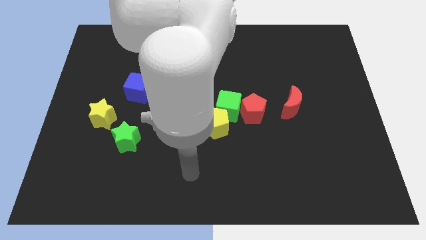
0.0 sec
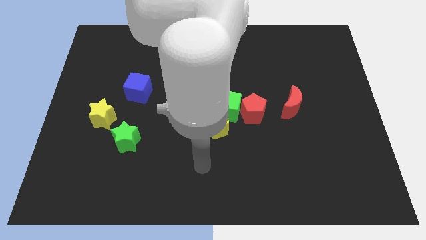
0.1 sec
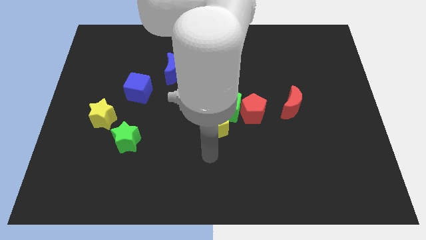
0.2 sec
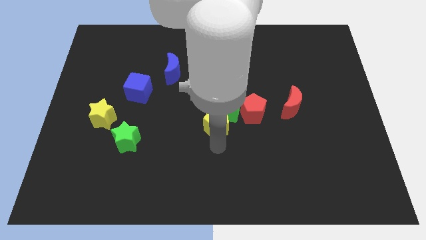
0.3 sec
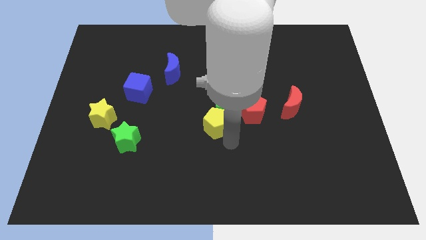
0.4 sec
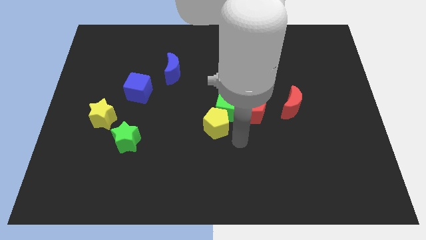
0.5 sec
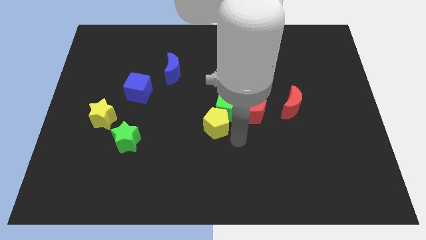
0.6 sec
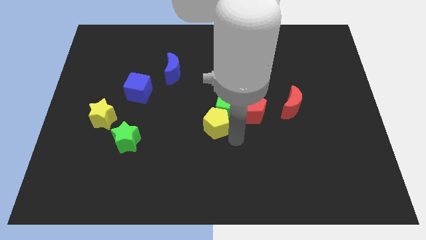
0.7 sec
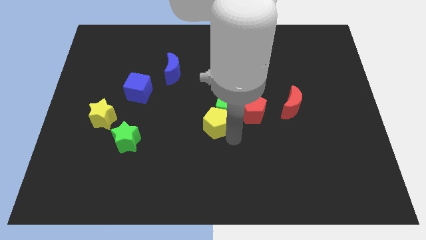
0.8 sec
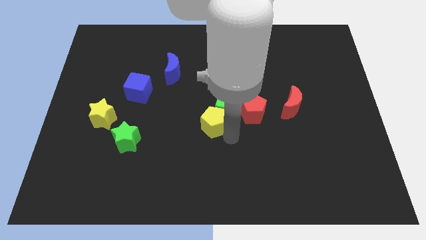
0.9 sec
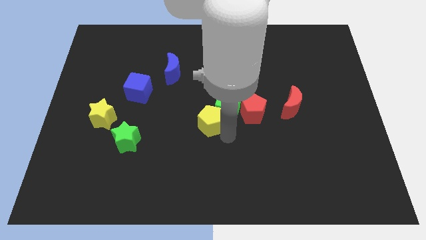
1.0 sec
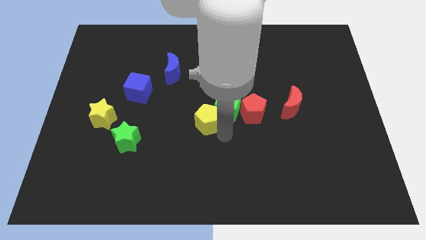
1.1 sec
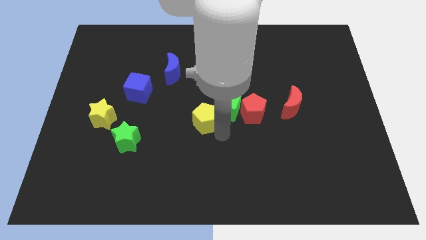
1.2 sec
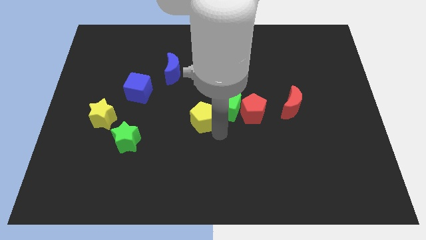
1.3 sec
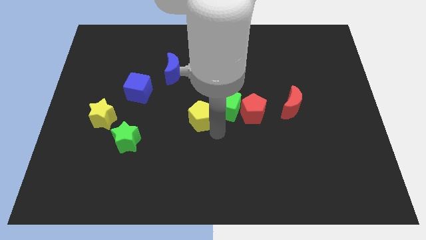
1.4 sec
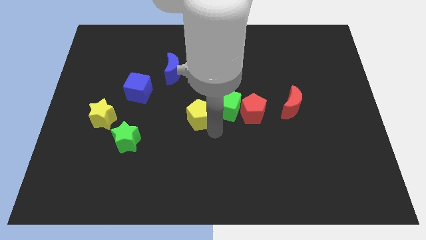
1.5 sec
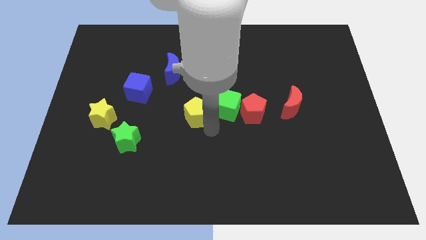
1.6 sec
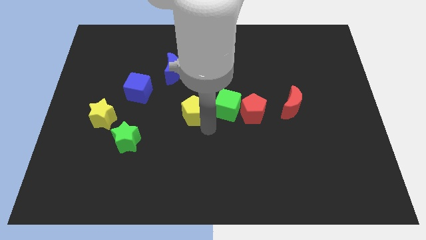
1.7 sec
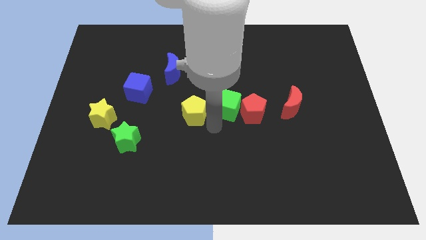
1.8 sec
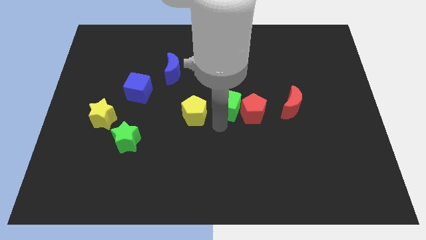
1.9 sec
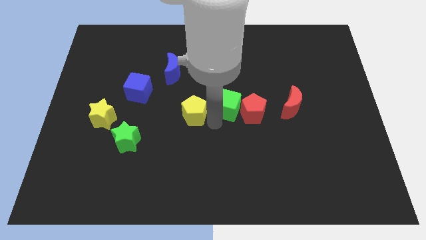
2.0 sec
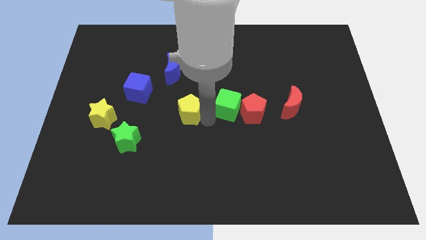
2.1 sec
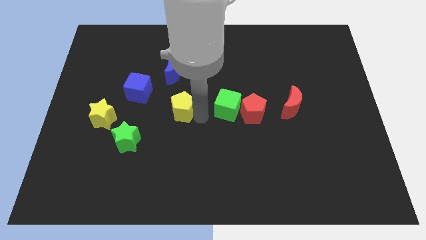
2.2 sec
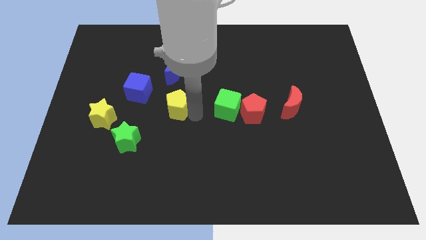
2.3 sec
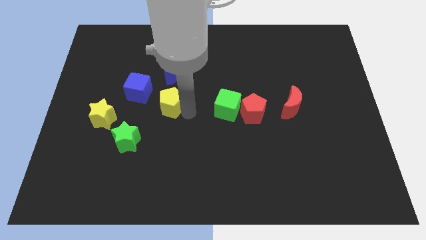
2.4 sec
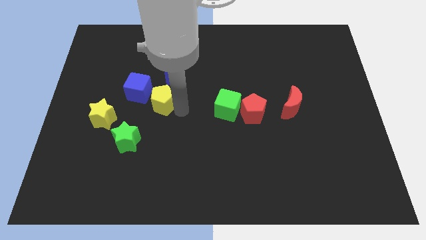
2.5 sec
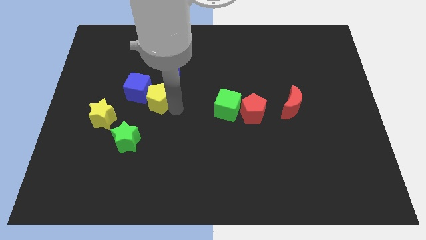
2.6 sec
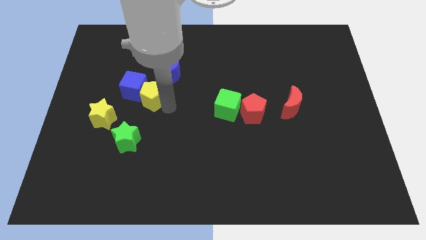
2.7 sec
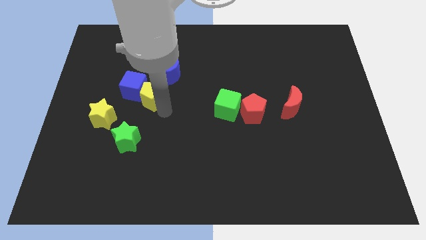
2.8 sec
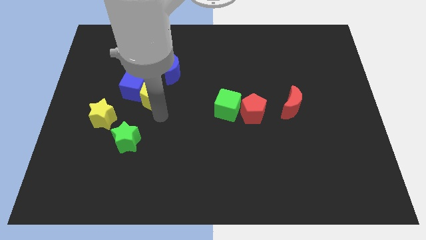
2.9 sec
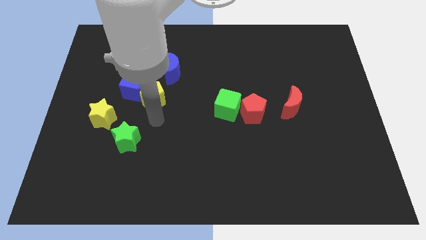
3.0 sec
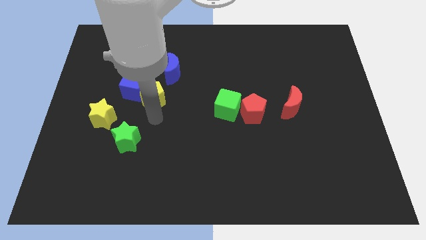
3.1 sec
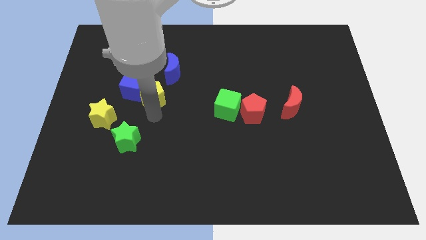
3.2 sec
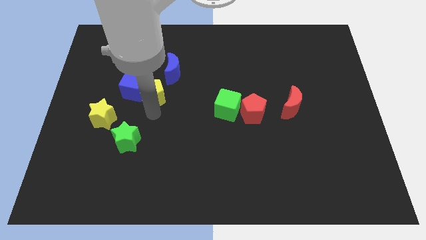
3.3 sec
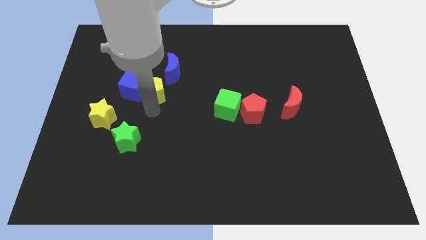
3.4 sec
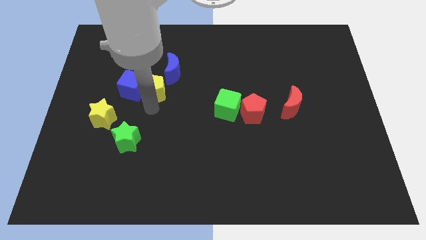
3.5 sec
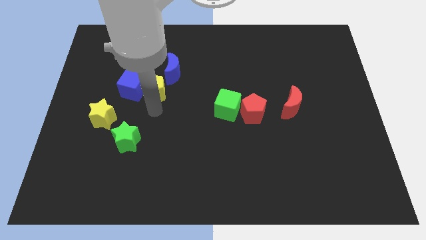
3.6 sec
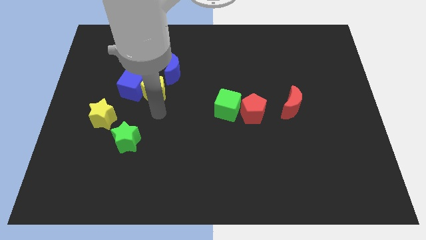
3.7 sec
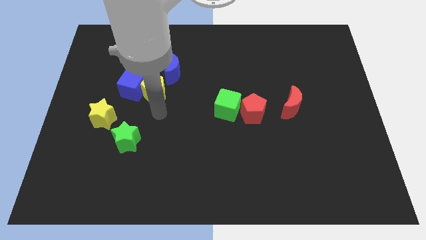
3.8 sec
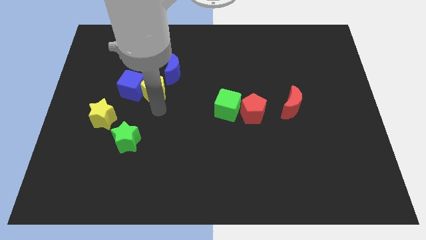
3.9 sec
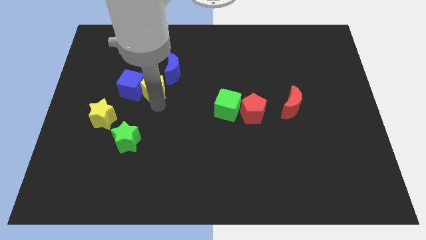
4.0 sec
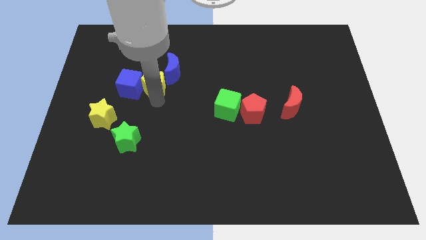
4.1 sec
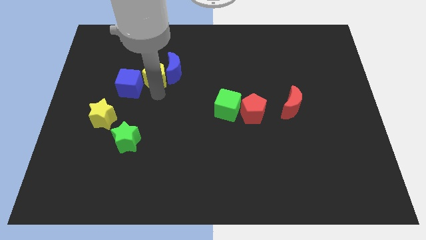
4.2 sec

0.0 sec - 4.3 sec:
move the yellow pentagon up and then to the left

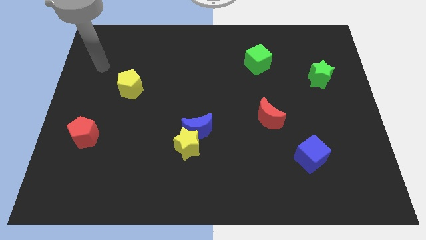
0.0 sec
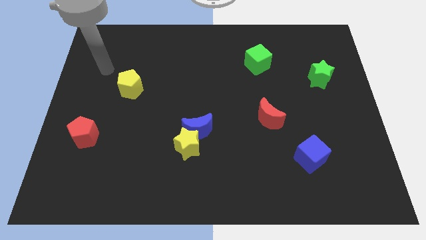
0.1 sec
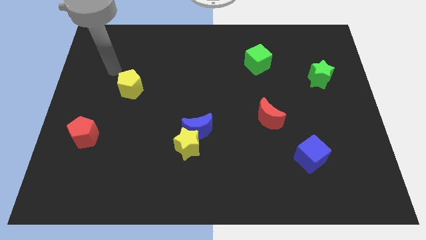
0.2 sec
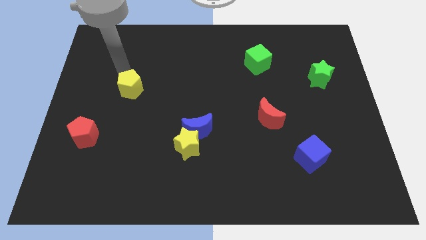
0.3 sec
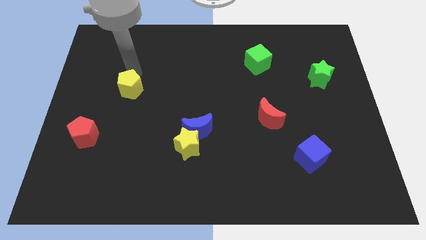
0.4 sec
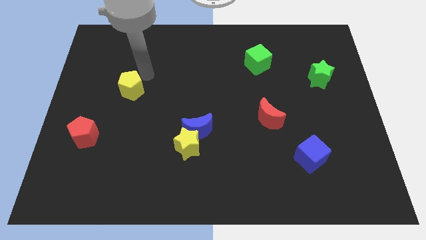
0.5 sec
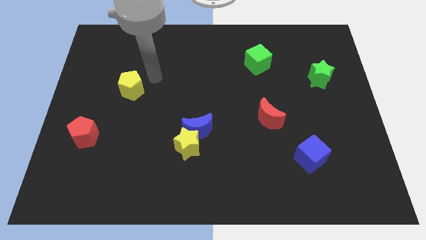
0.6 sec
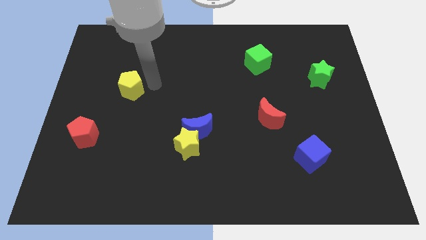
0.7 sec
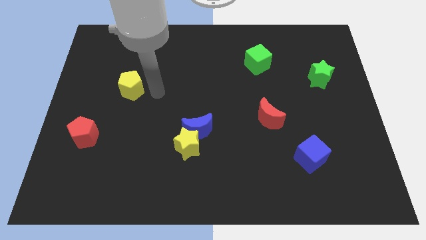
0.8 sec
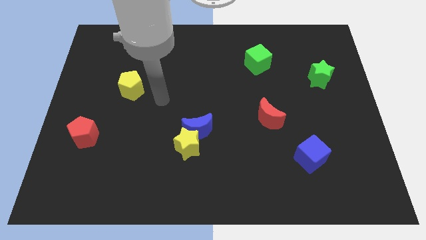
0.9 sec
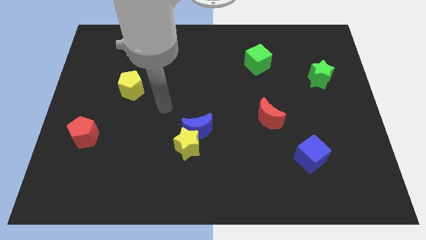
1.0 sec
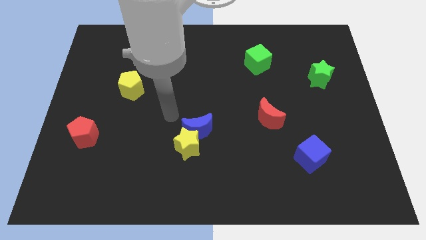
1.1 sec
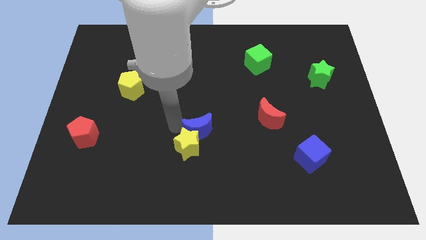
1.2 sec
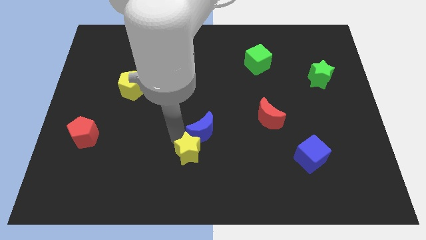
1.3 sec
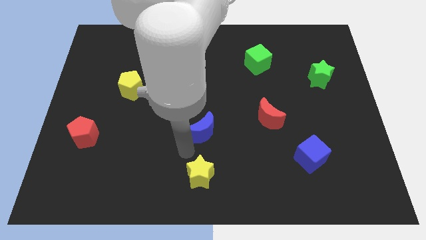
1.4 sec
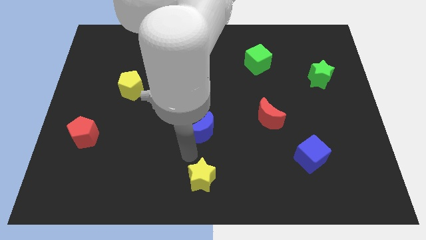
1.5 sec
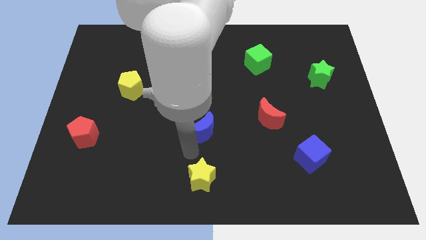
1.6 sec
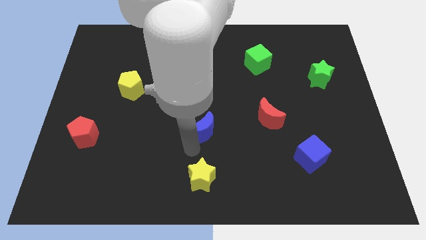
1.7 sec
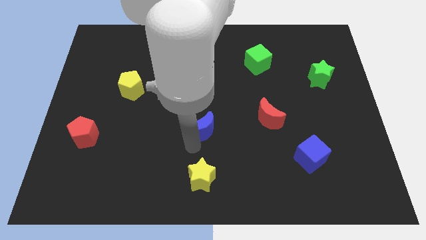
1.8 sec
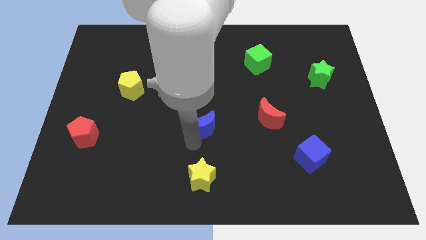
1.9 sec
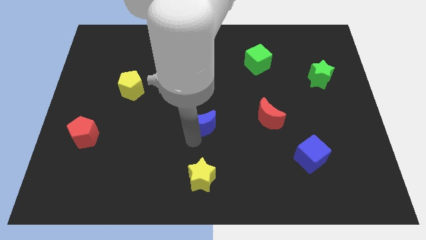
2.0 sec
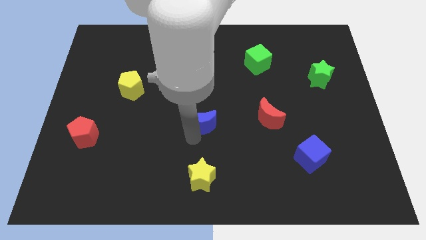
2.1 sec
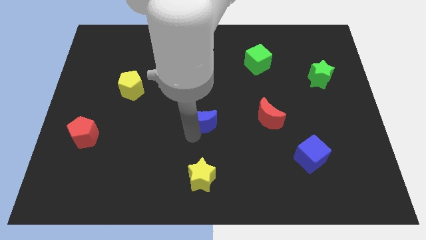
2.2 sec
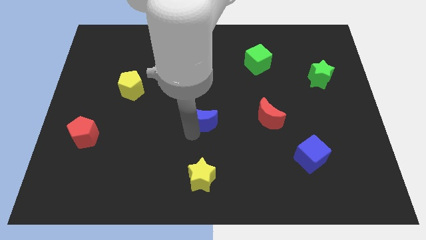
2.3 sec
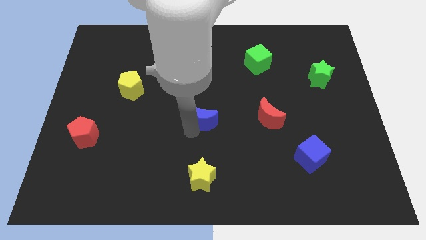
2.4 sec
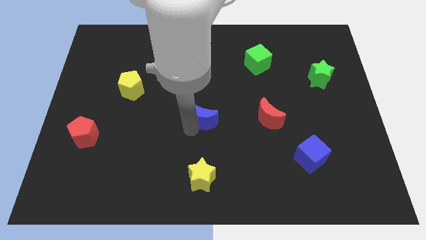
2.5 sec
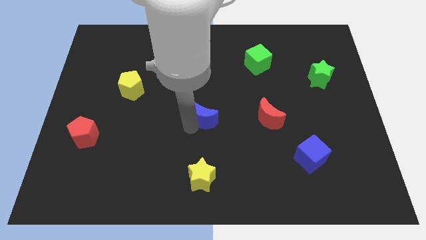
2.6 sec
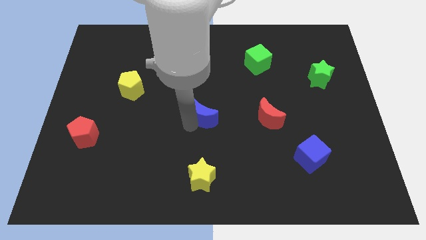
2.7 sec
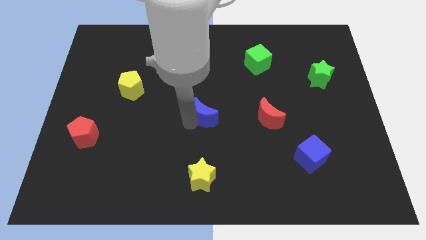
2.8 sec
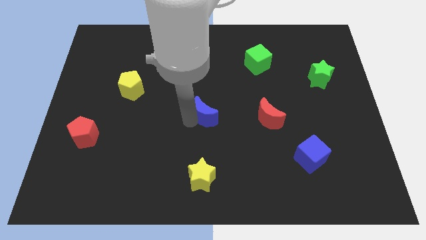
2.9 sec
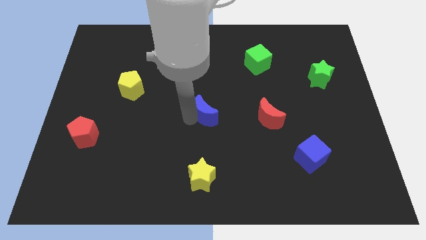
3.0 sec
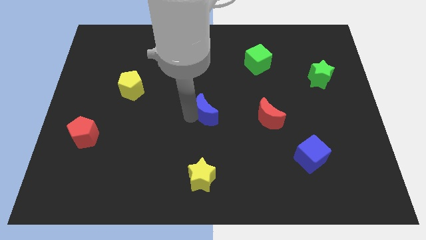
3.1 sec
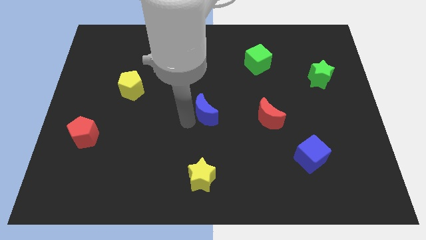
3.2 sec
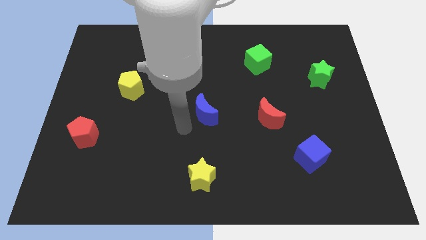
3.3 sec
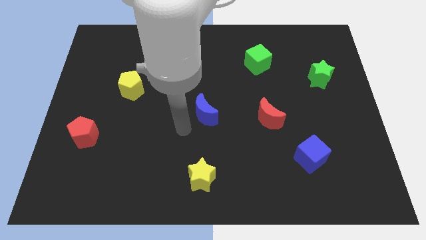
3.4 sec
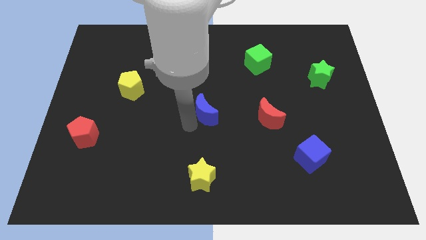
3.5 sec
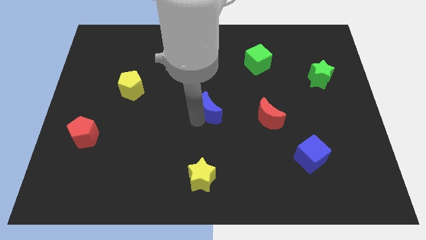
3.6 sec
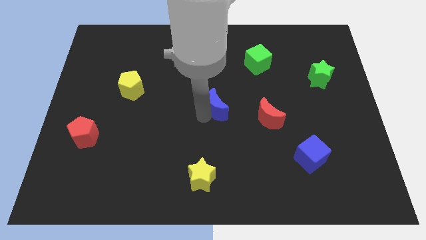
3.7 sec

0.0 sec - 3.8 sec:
move the blue moon diagonally up and to the right slightly
